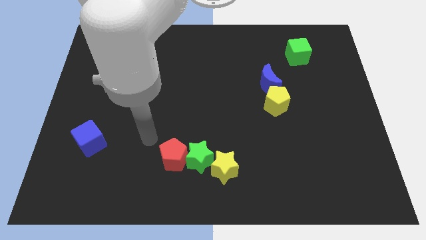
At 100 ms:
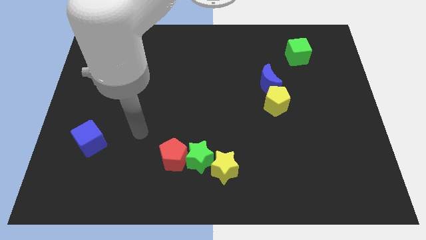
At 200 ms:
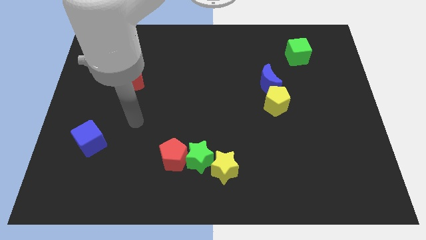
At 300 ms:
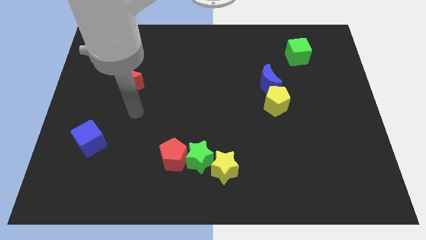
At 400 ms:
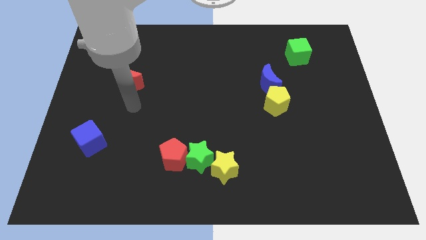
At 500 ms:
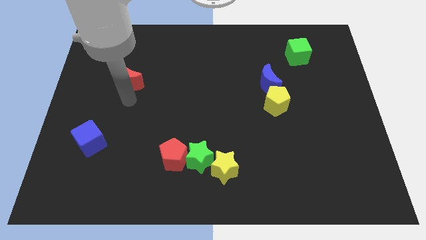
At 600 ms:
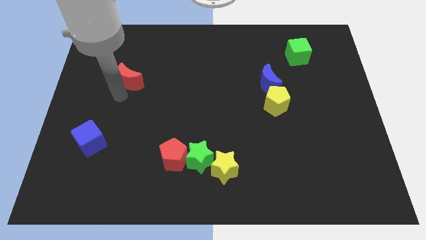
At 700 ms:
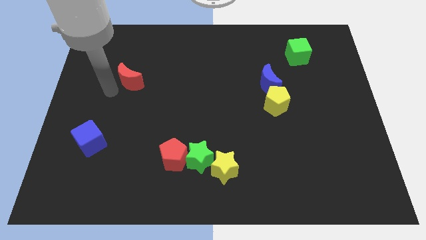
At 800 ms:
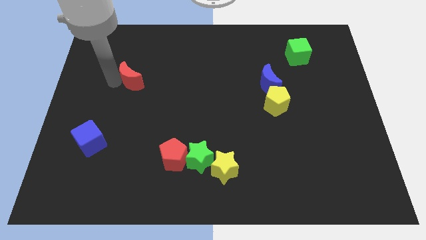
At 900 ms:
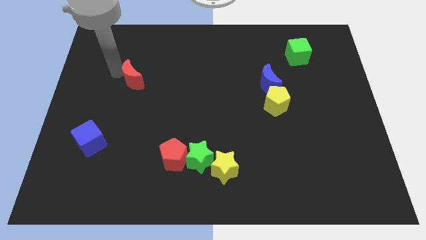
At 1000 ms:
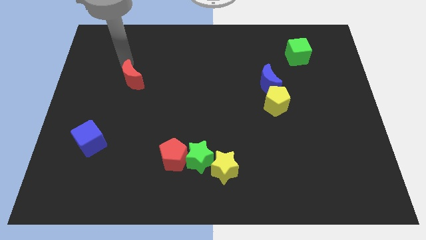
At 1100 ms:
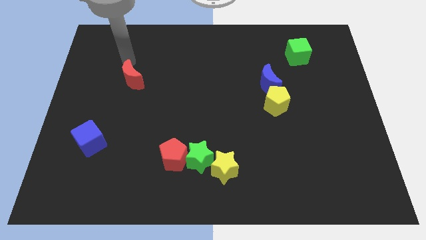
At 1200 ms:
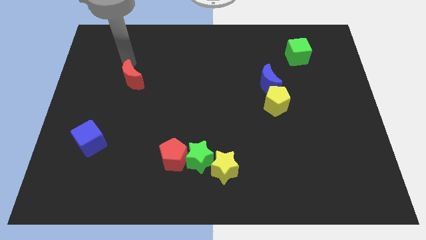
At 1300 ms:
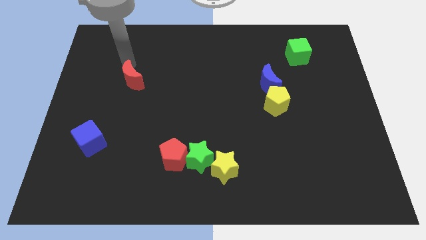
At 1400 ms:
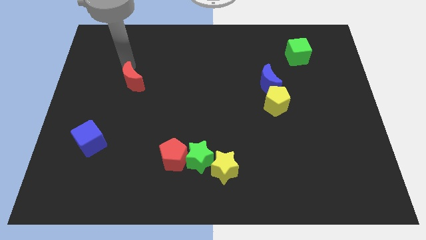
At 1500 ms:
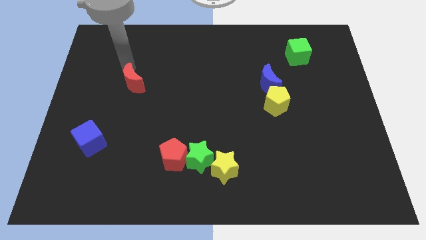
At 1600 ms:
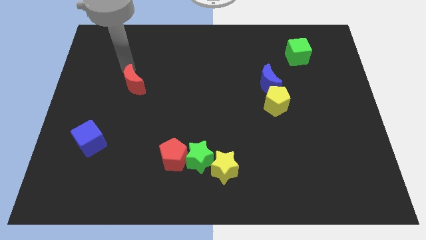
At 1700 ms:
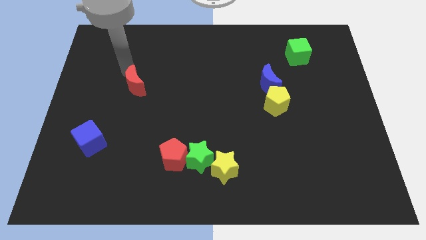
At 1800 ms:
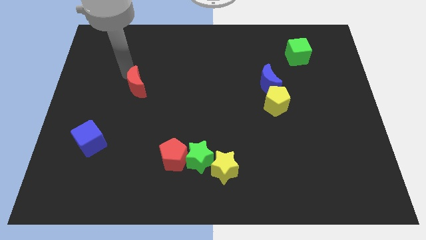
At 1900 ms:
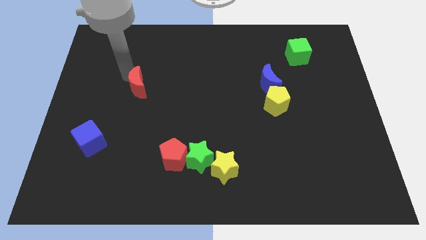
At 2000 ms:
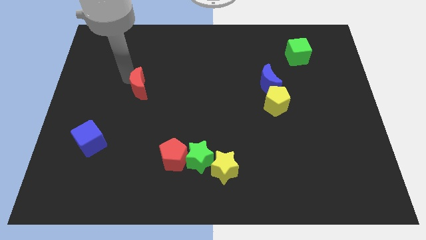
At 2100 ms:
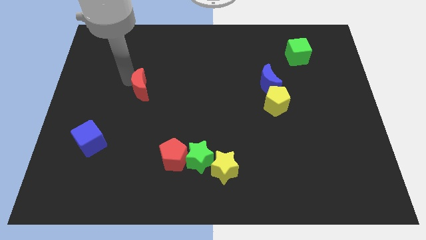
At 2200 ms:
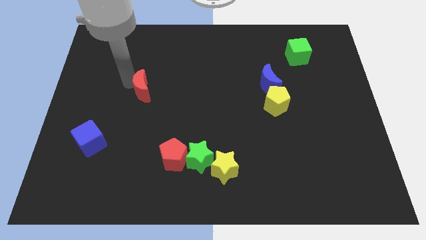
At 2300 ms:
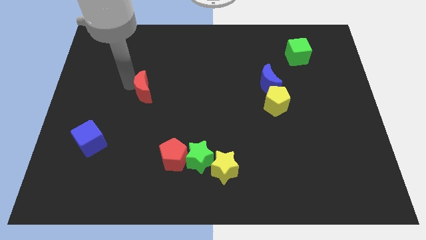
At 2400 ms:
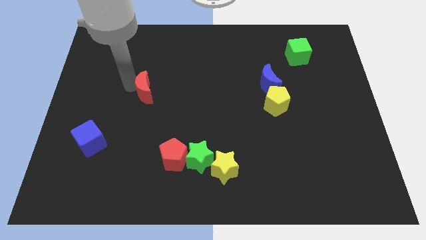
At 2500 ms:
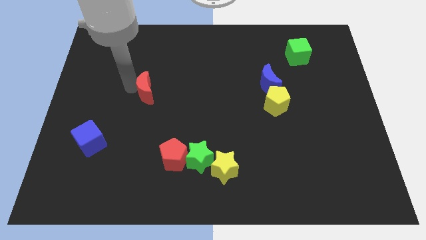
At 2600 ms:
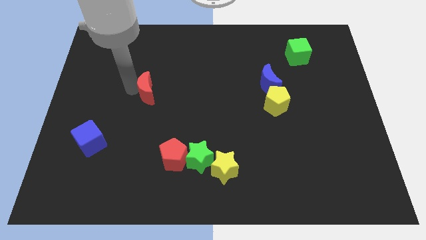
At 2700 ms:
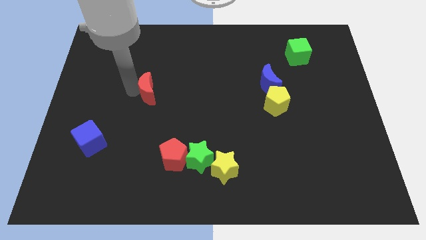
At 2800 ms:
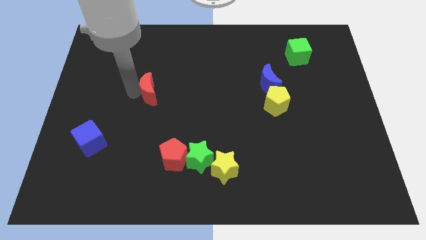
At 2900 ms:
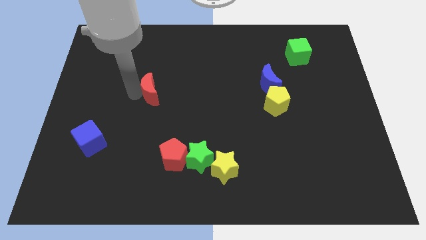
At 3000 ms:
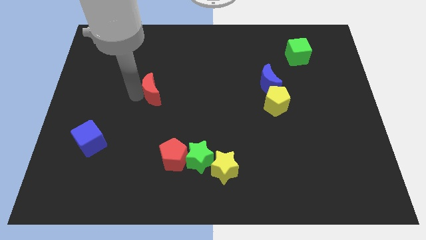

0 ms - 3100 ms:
slide the red moon a little downwards and then to the right

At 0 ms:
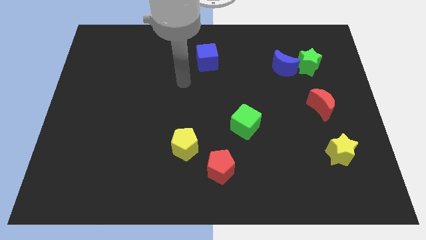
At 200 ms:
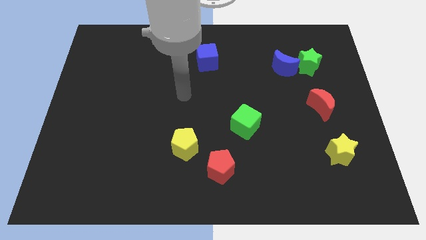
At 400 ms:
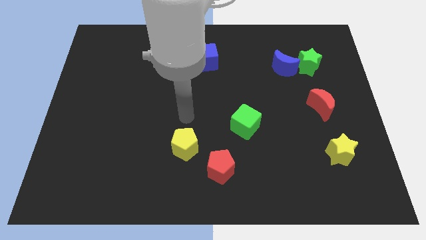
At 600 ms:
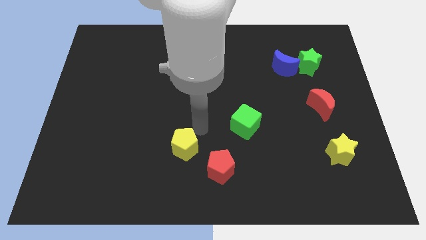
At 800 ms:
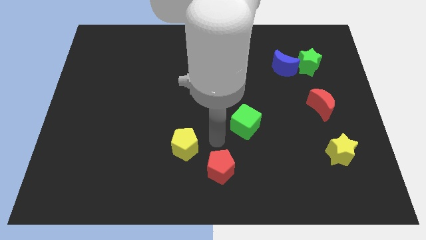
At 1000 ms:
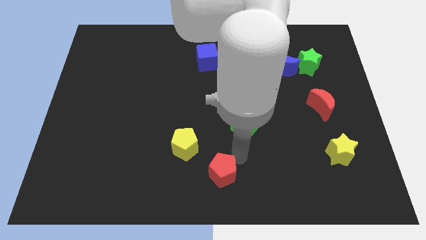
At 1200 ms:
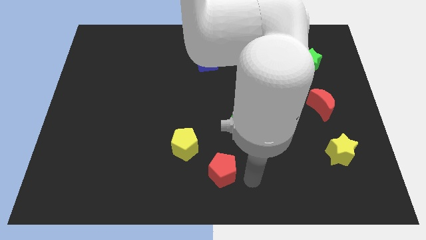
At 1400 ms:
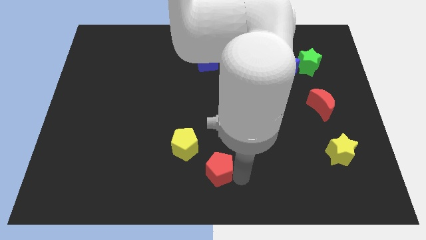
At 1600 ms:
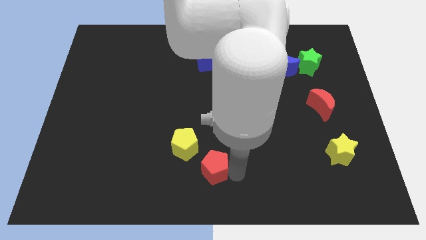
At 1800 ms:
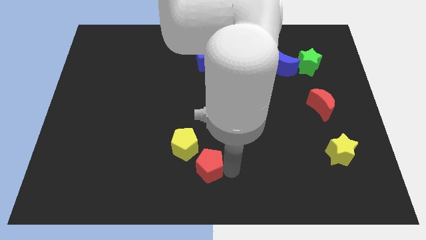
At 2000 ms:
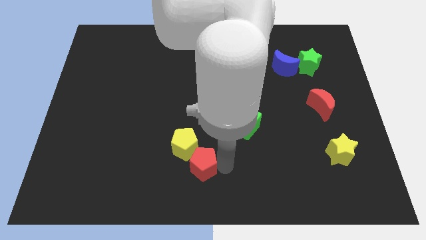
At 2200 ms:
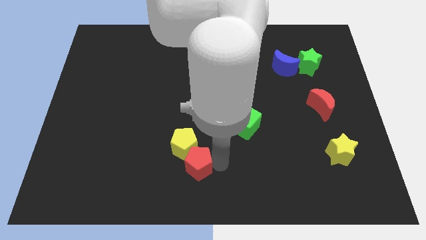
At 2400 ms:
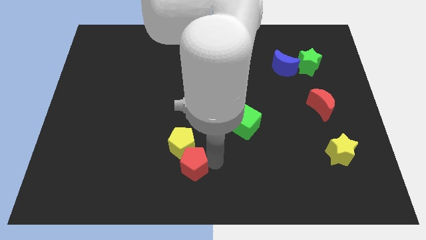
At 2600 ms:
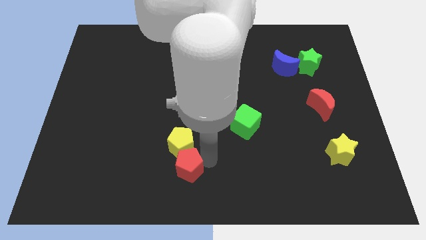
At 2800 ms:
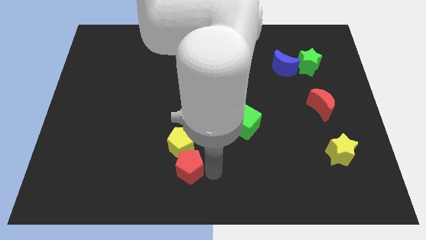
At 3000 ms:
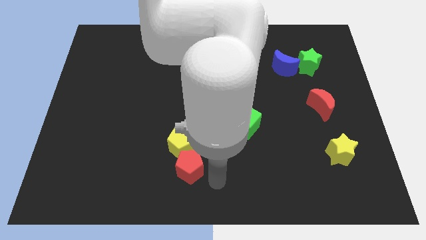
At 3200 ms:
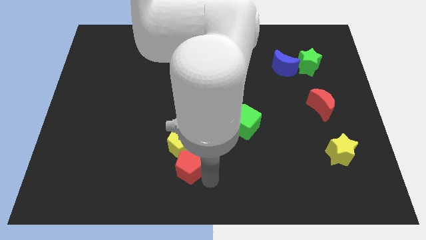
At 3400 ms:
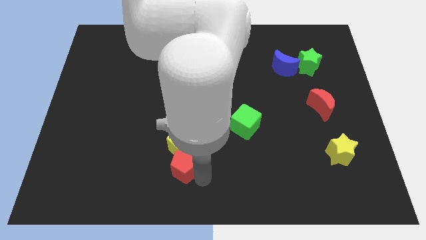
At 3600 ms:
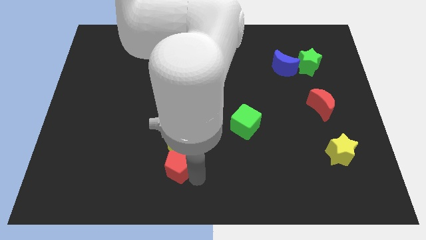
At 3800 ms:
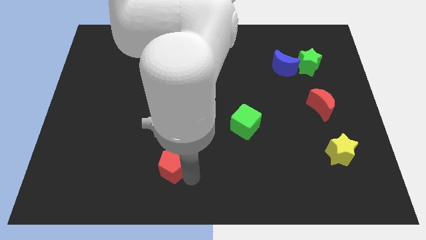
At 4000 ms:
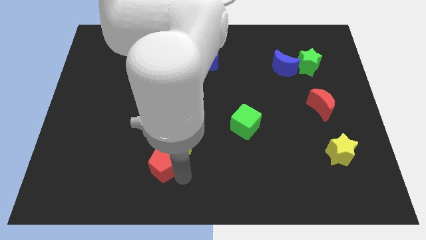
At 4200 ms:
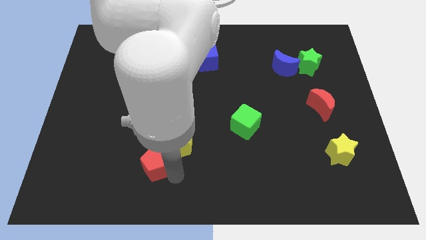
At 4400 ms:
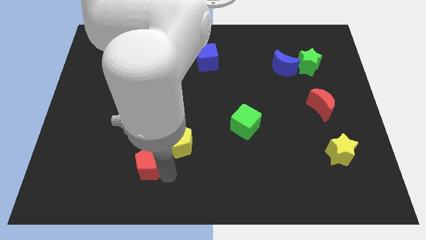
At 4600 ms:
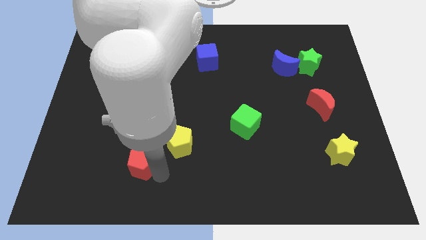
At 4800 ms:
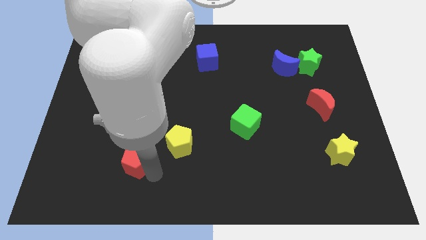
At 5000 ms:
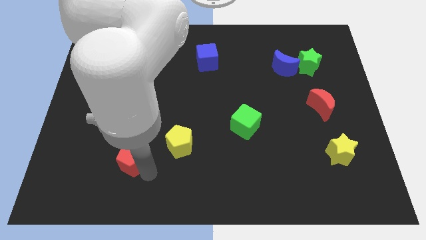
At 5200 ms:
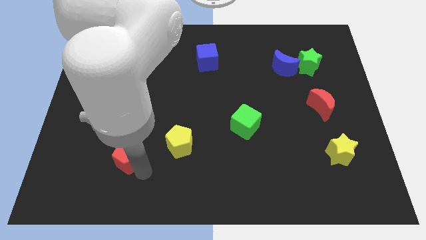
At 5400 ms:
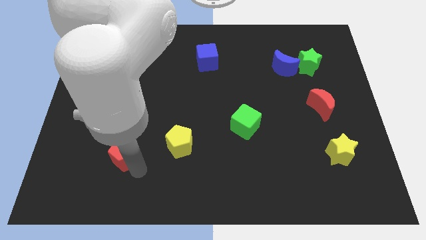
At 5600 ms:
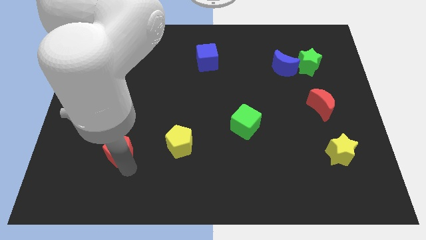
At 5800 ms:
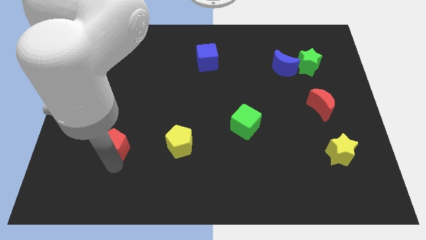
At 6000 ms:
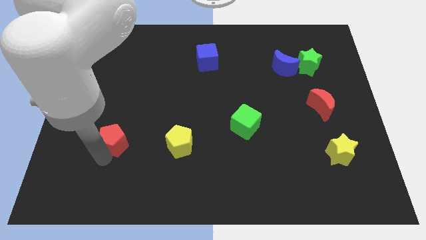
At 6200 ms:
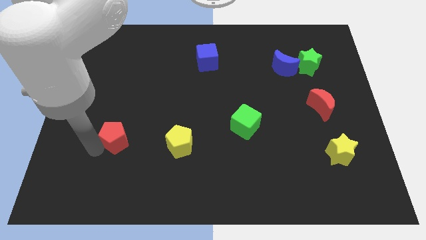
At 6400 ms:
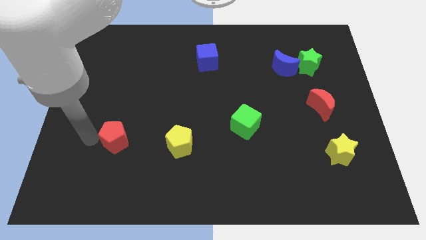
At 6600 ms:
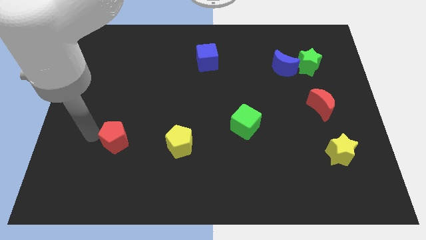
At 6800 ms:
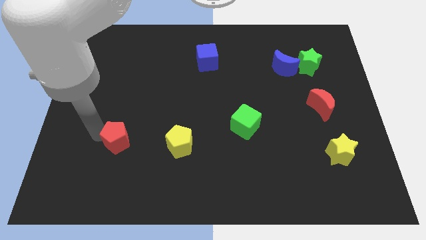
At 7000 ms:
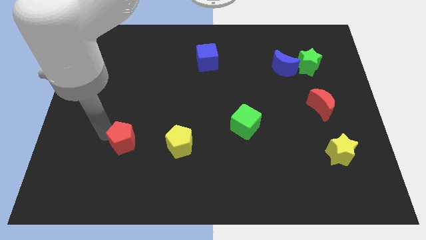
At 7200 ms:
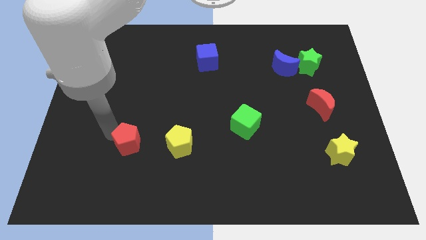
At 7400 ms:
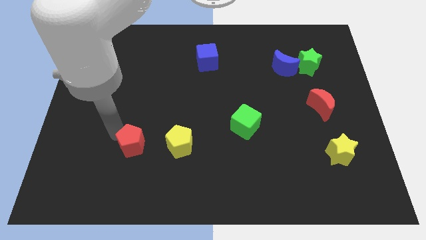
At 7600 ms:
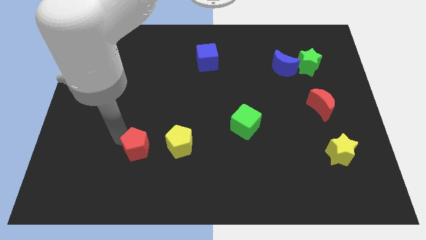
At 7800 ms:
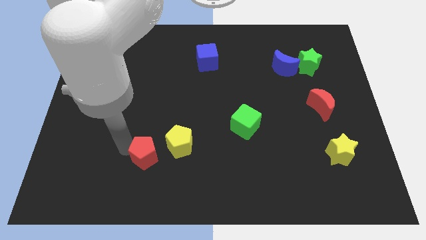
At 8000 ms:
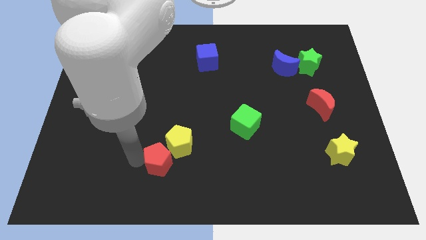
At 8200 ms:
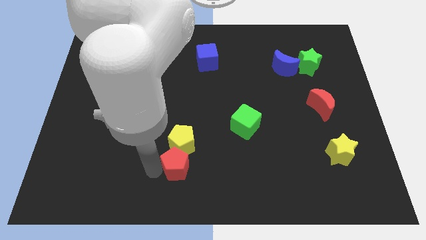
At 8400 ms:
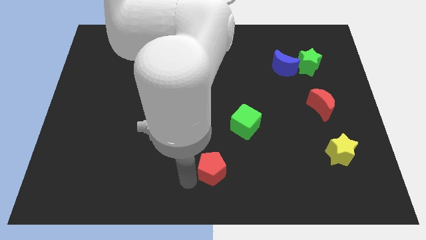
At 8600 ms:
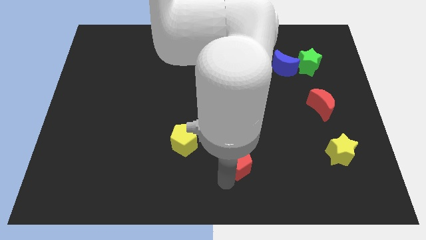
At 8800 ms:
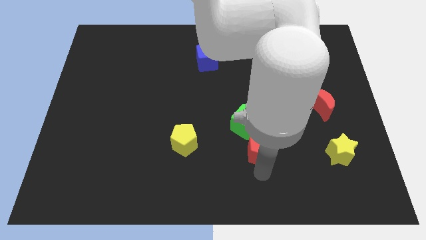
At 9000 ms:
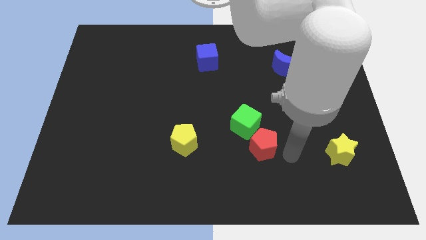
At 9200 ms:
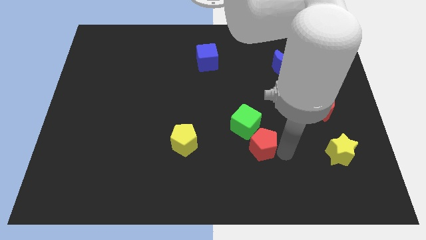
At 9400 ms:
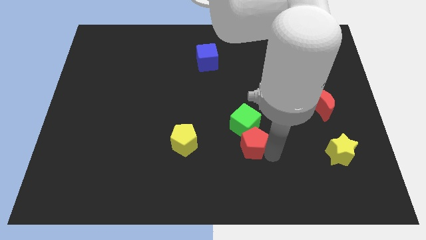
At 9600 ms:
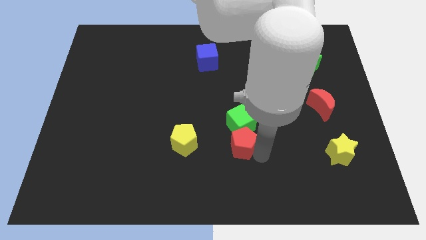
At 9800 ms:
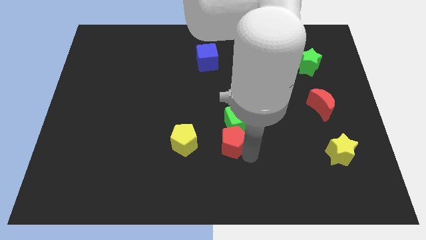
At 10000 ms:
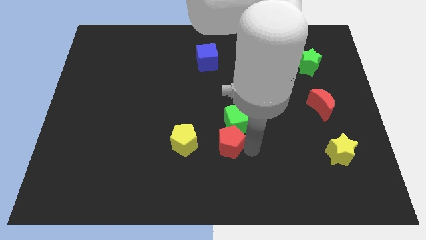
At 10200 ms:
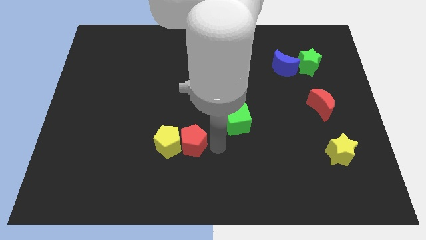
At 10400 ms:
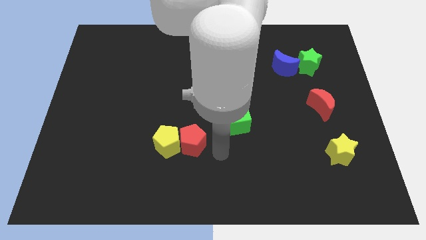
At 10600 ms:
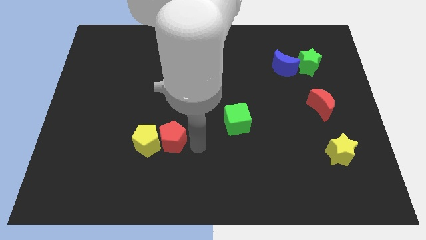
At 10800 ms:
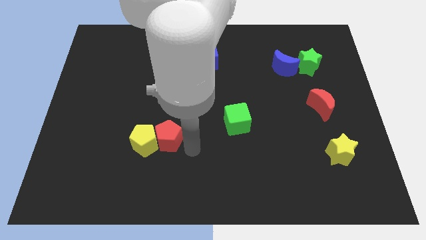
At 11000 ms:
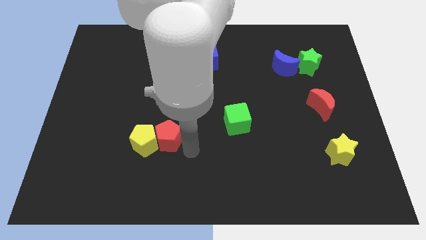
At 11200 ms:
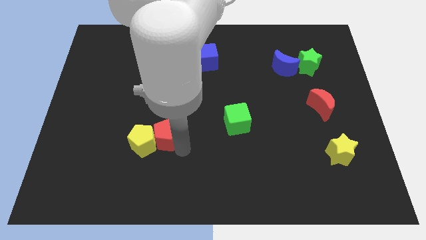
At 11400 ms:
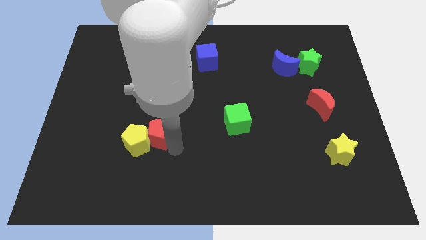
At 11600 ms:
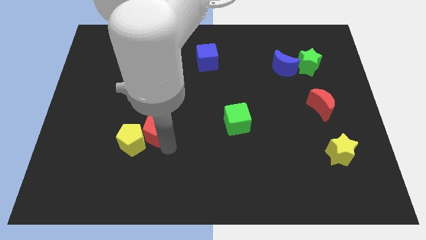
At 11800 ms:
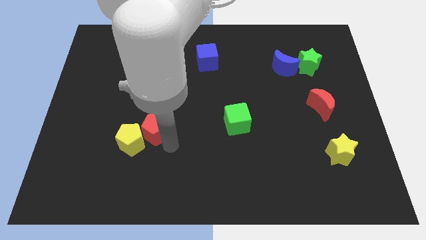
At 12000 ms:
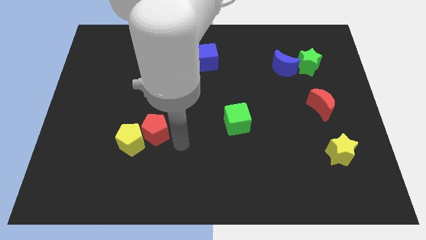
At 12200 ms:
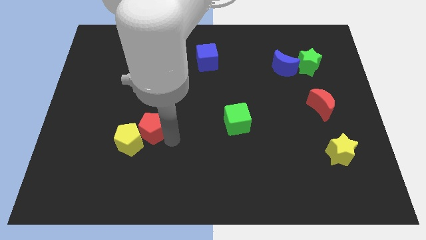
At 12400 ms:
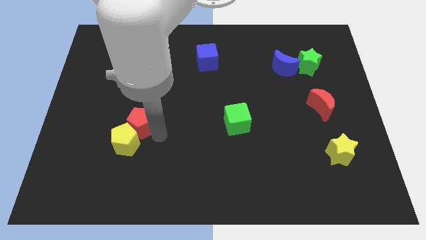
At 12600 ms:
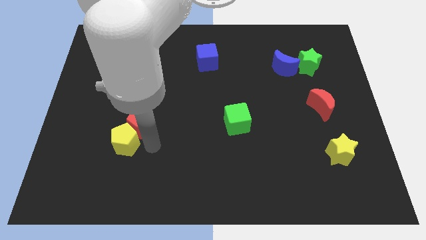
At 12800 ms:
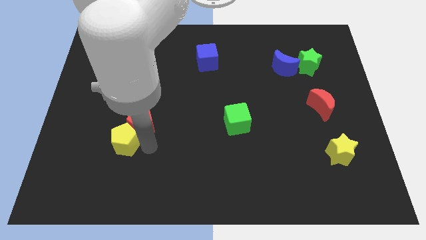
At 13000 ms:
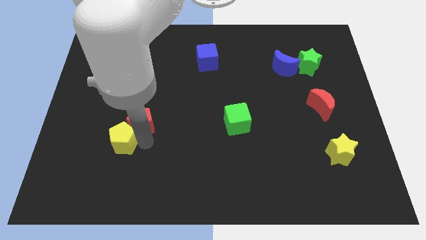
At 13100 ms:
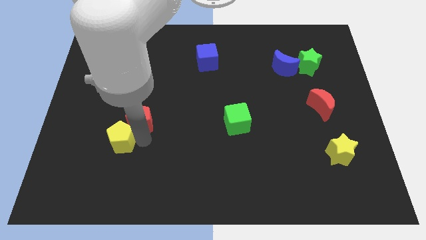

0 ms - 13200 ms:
slide the red pentagon up and left diagonally
